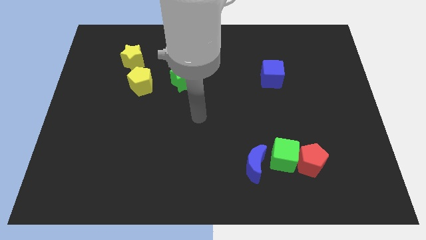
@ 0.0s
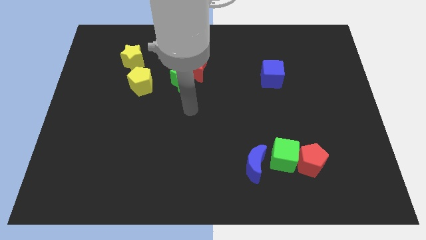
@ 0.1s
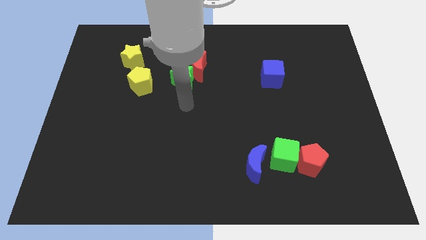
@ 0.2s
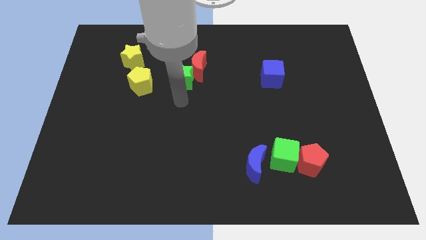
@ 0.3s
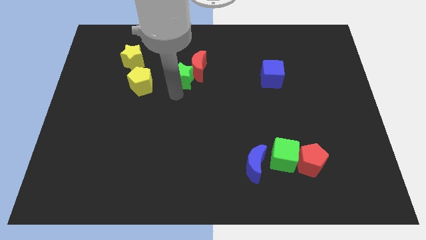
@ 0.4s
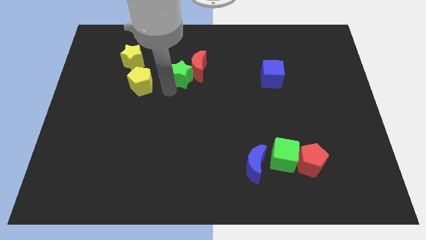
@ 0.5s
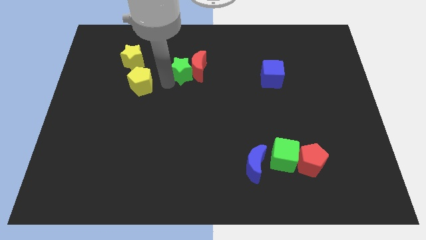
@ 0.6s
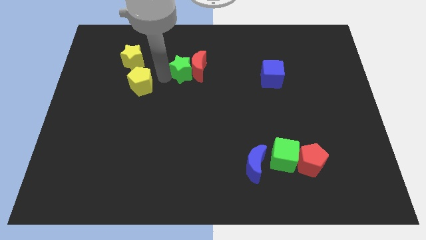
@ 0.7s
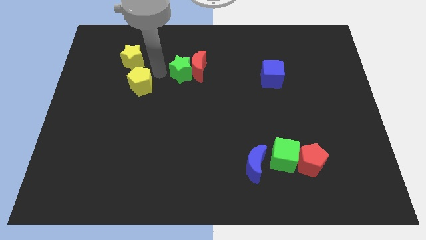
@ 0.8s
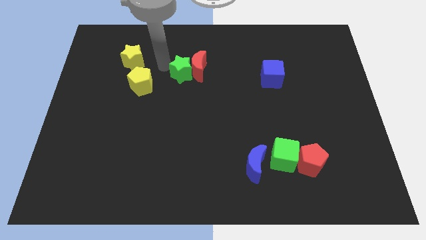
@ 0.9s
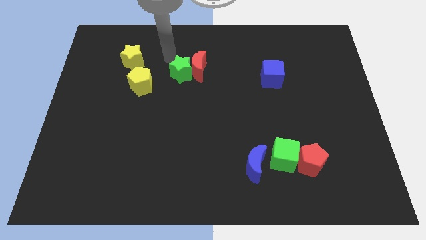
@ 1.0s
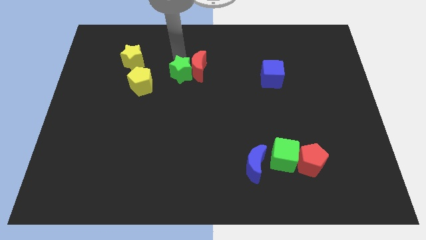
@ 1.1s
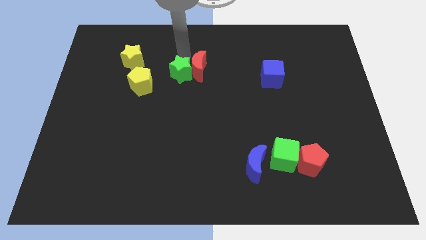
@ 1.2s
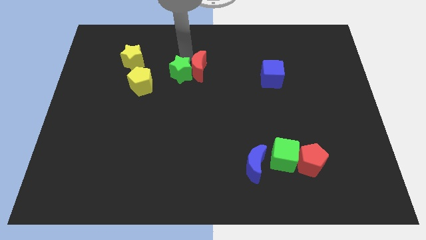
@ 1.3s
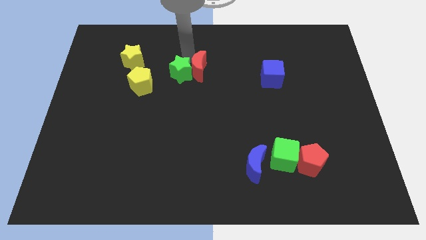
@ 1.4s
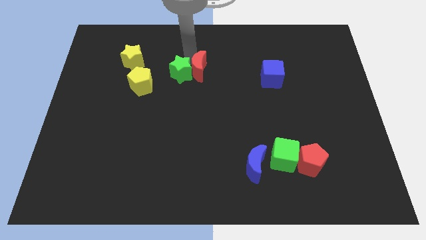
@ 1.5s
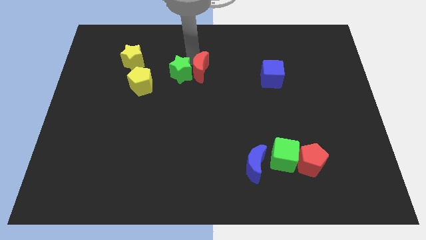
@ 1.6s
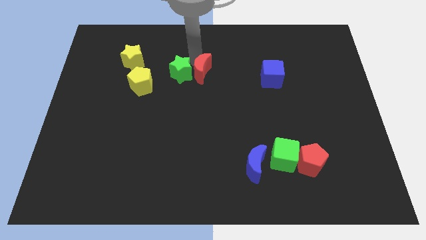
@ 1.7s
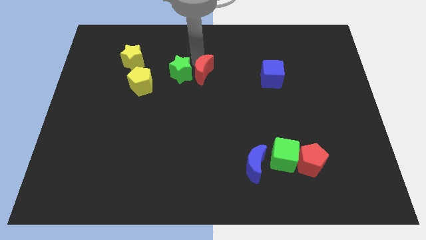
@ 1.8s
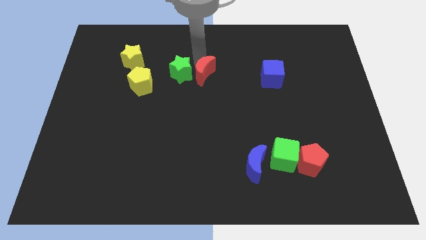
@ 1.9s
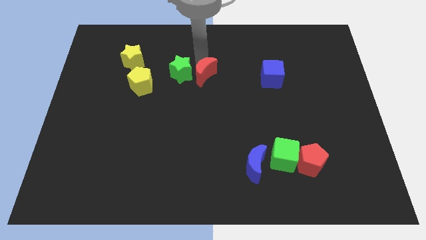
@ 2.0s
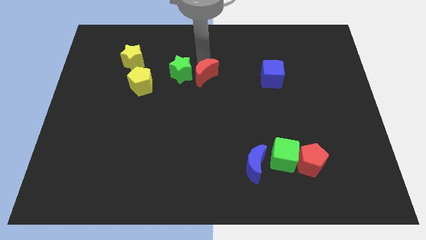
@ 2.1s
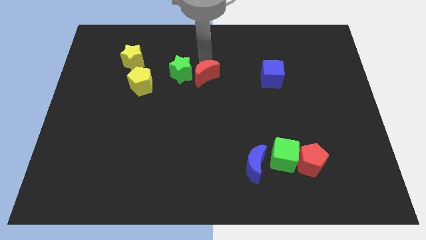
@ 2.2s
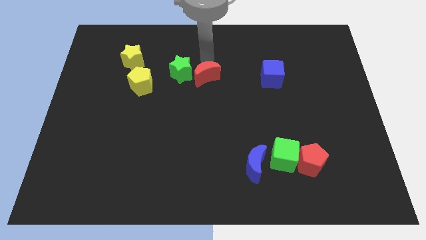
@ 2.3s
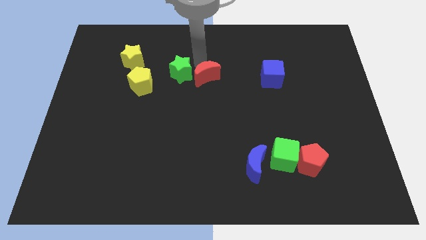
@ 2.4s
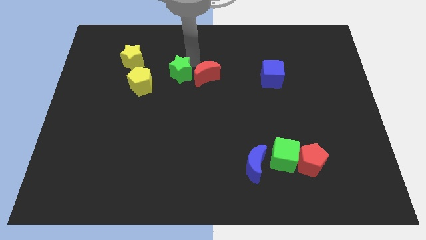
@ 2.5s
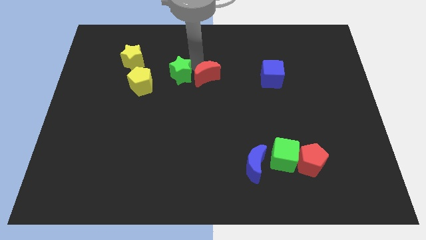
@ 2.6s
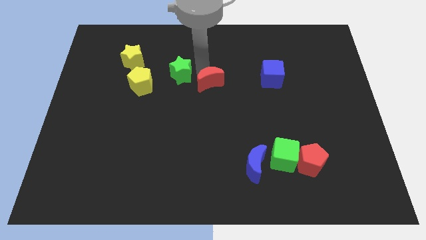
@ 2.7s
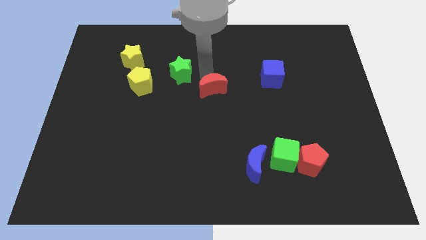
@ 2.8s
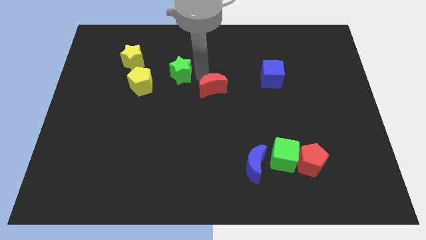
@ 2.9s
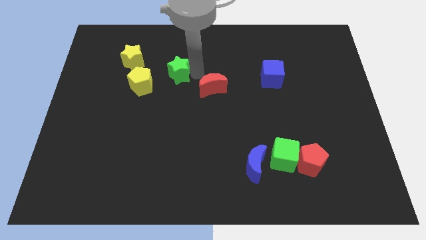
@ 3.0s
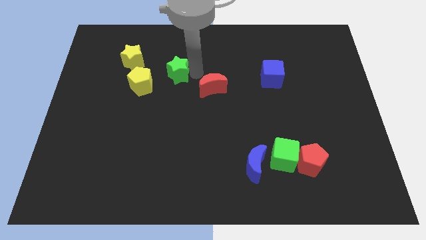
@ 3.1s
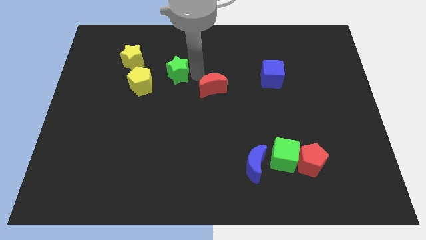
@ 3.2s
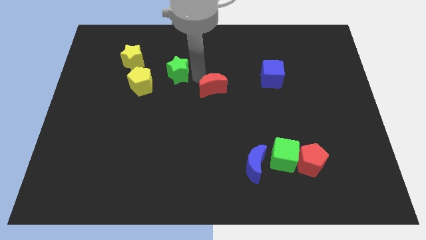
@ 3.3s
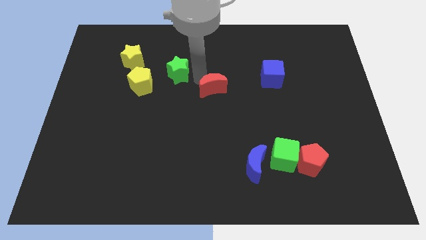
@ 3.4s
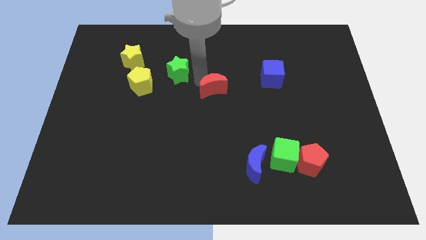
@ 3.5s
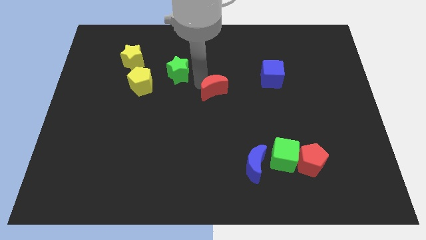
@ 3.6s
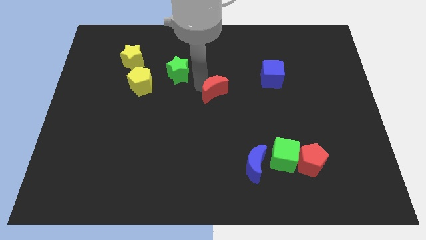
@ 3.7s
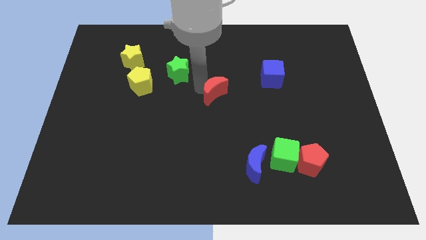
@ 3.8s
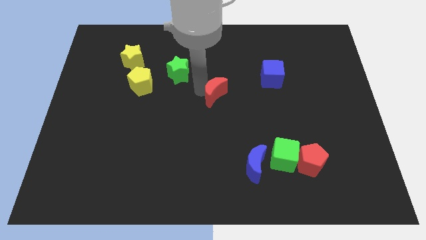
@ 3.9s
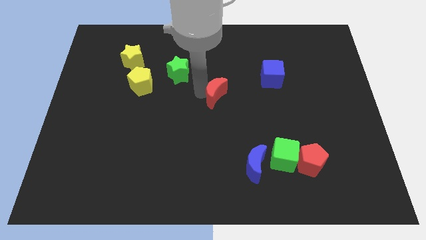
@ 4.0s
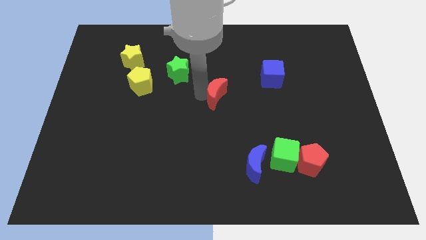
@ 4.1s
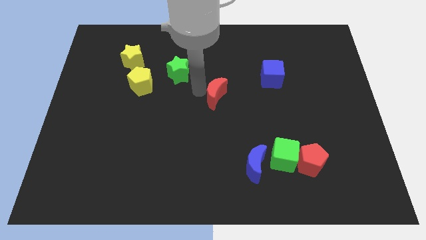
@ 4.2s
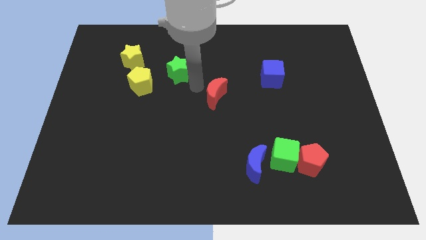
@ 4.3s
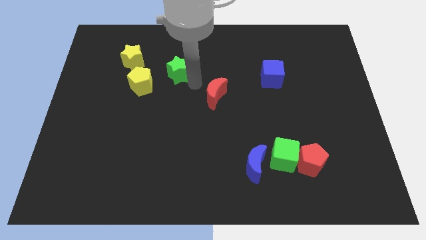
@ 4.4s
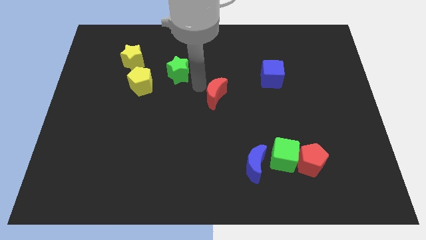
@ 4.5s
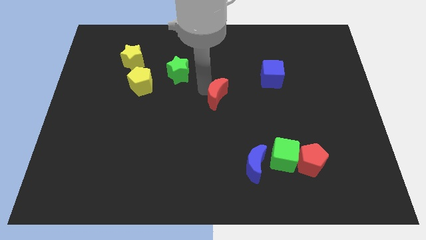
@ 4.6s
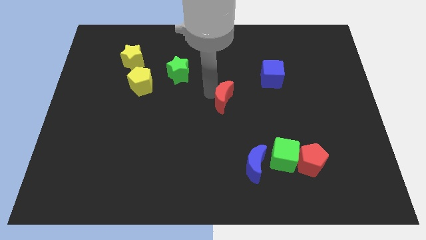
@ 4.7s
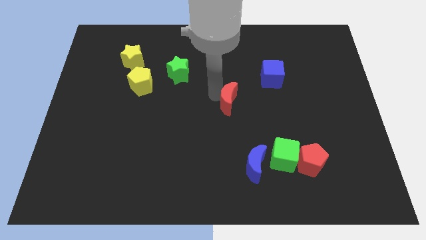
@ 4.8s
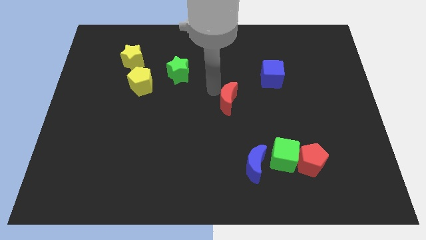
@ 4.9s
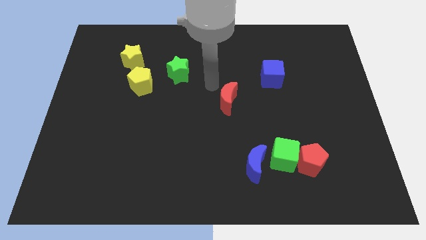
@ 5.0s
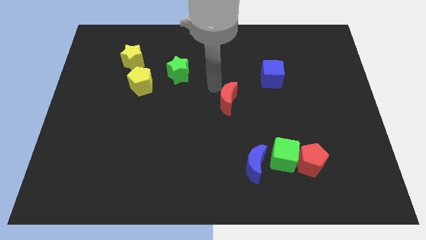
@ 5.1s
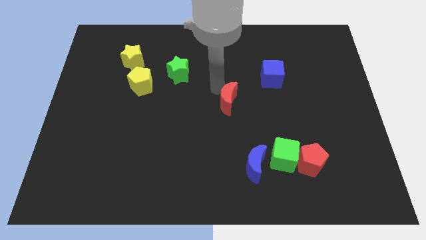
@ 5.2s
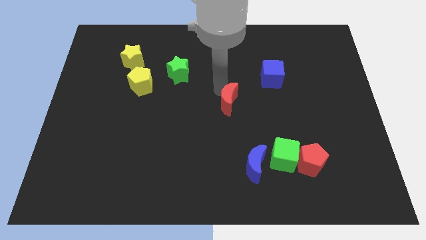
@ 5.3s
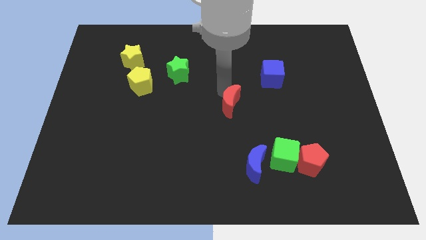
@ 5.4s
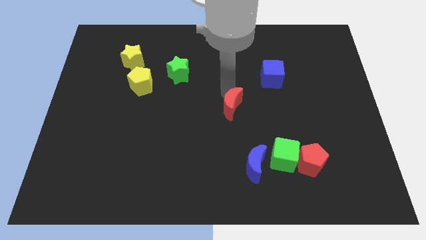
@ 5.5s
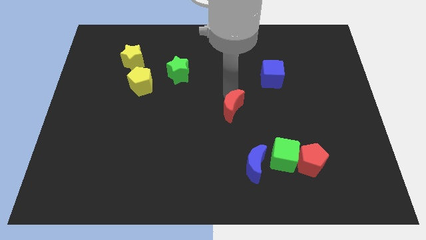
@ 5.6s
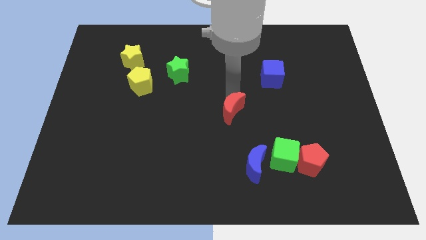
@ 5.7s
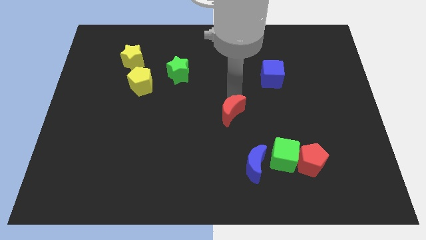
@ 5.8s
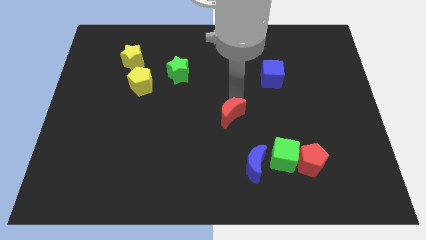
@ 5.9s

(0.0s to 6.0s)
slide the red moon to the top side of the blue moon

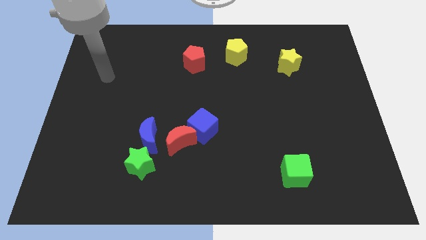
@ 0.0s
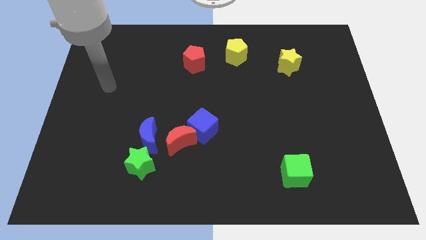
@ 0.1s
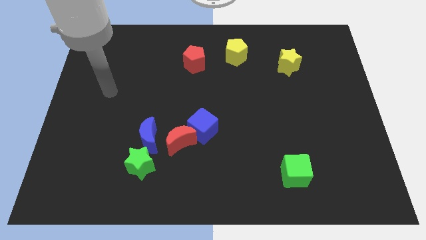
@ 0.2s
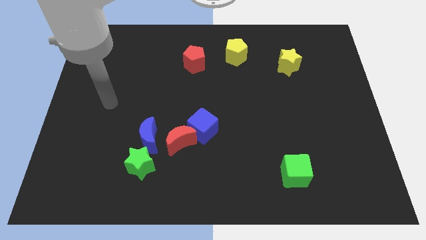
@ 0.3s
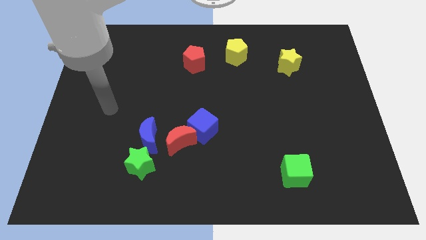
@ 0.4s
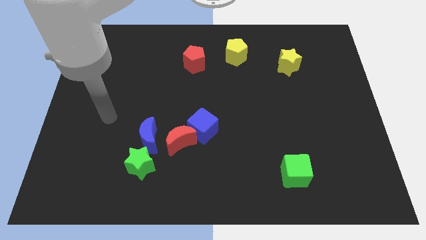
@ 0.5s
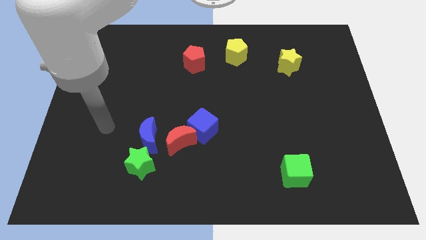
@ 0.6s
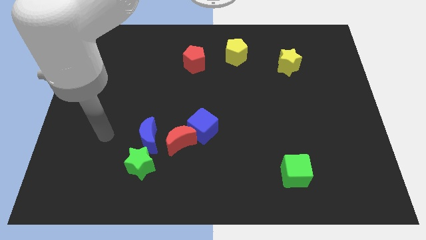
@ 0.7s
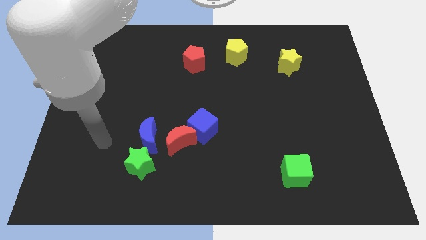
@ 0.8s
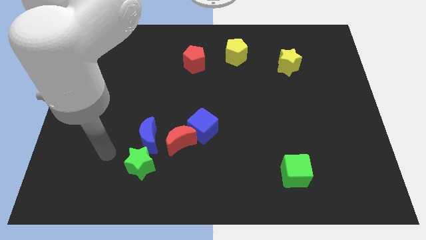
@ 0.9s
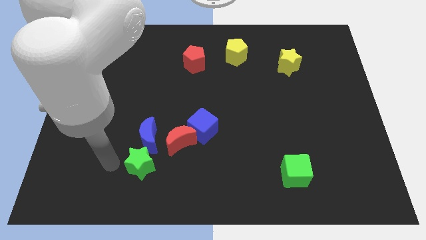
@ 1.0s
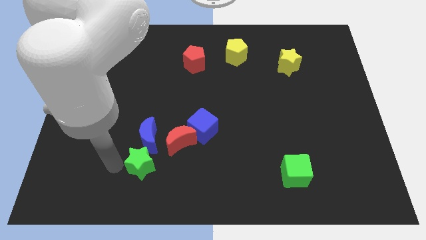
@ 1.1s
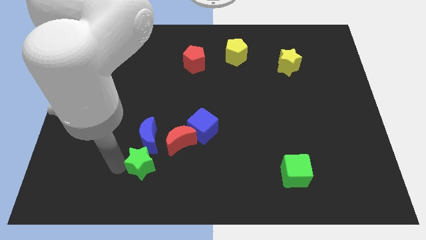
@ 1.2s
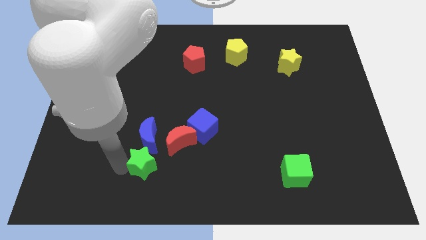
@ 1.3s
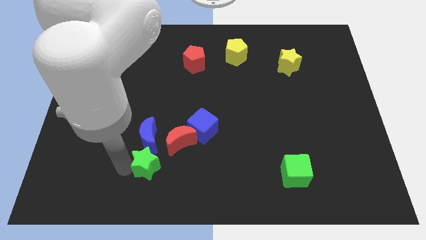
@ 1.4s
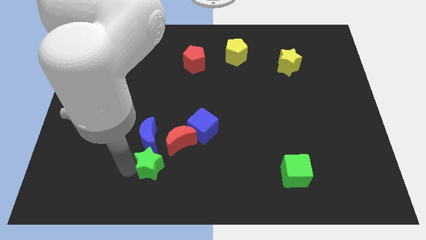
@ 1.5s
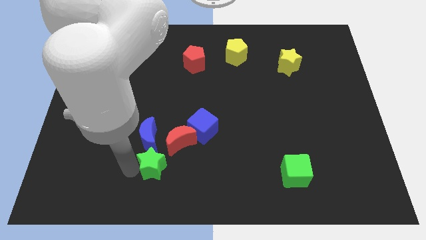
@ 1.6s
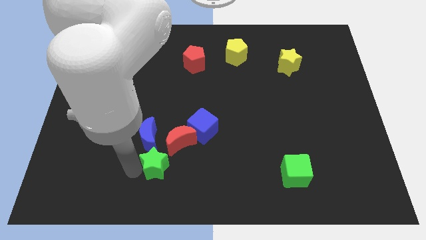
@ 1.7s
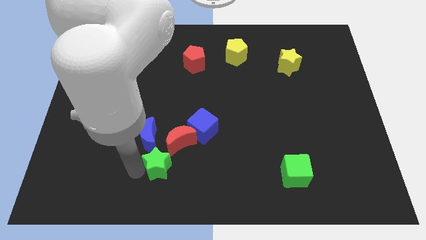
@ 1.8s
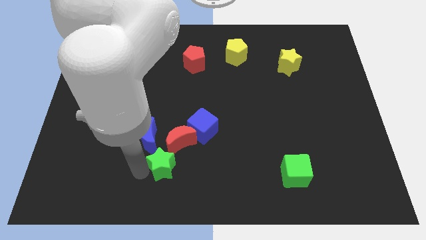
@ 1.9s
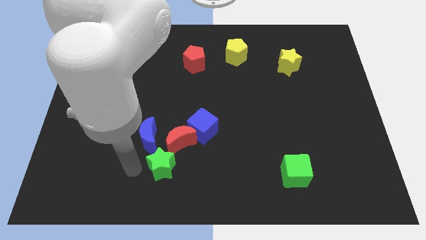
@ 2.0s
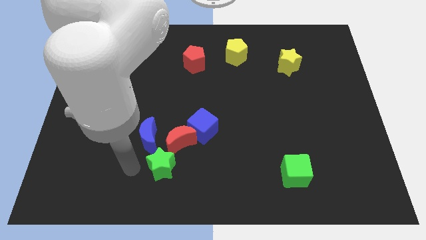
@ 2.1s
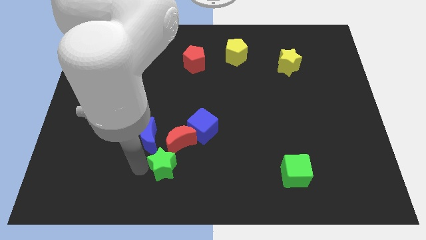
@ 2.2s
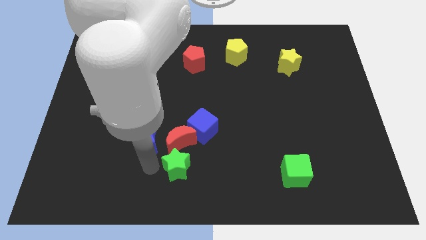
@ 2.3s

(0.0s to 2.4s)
push the green star diagonally down and to the right of the red moon
